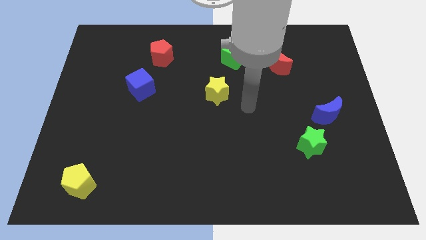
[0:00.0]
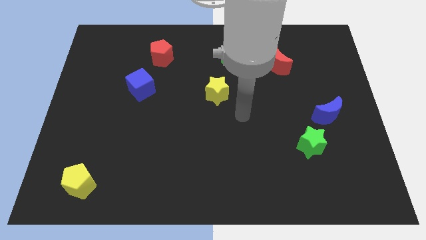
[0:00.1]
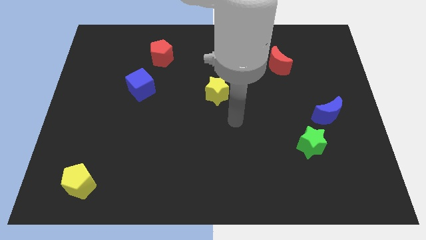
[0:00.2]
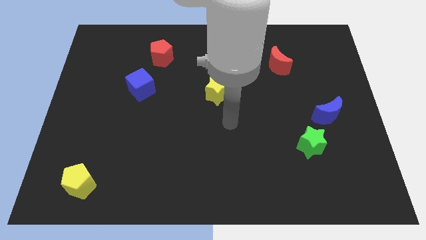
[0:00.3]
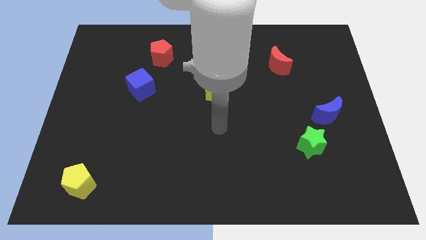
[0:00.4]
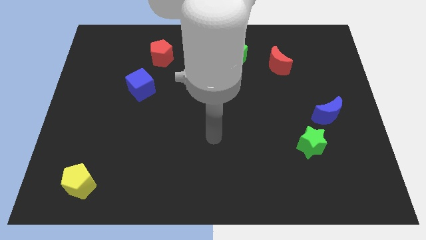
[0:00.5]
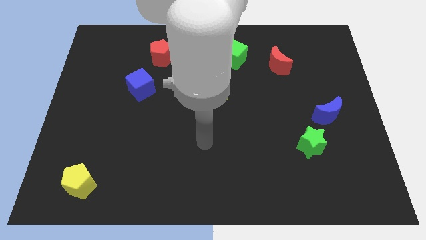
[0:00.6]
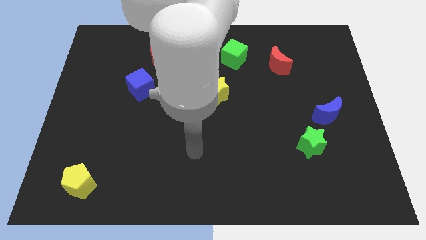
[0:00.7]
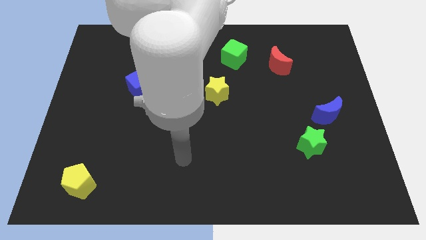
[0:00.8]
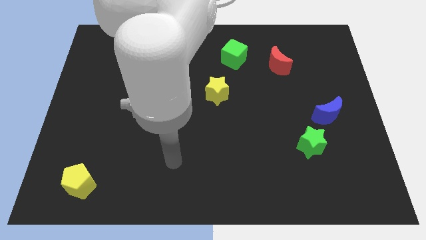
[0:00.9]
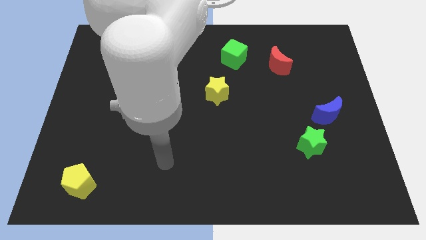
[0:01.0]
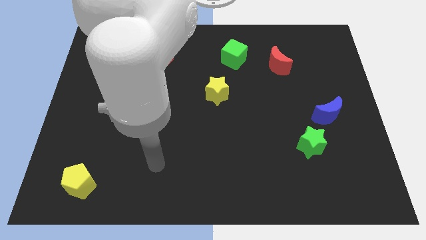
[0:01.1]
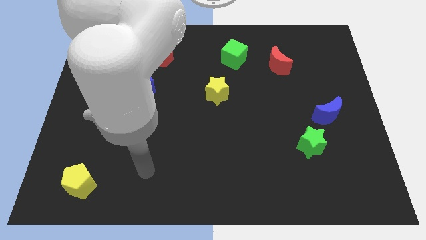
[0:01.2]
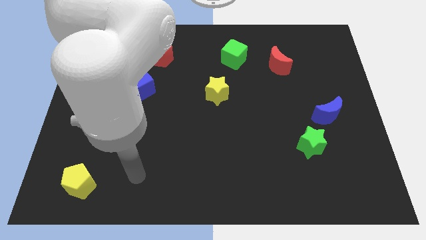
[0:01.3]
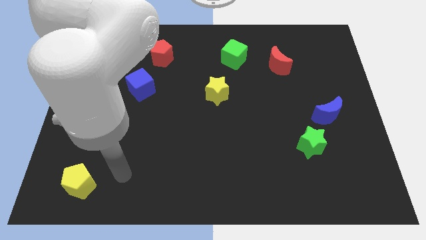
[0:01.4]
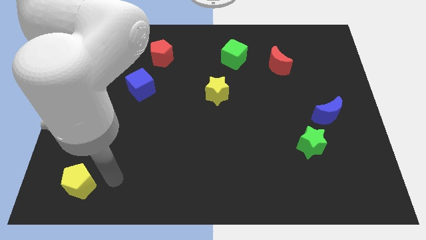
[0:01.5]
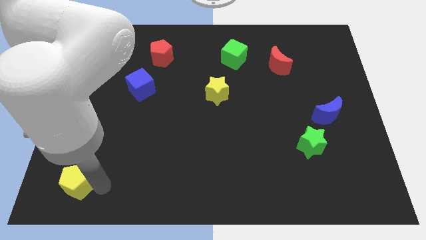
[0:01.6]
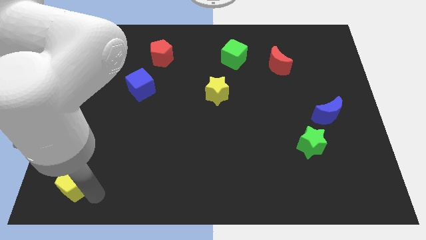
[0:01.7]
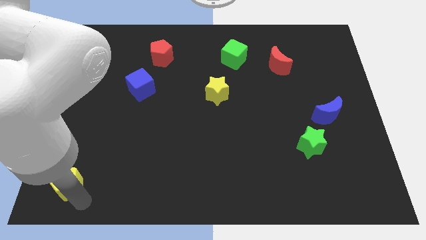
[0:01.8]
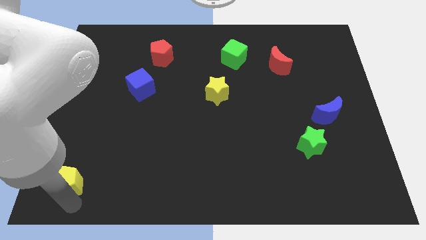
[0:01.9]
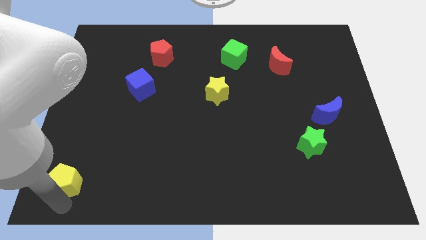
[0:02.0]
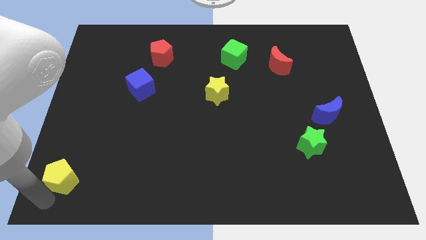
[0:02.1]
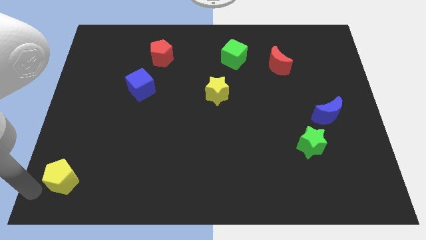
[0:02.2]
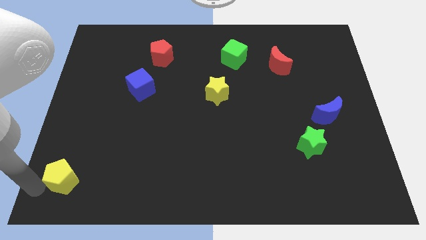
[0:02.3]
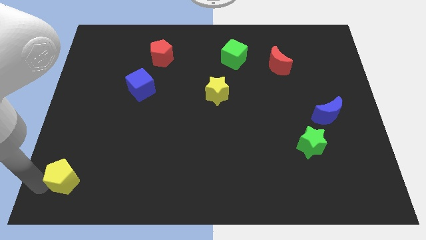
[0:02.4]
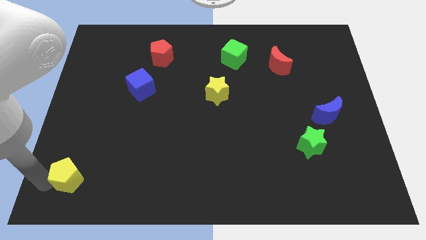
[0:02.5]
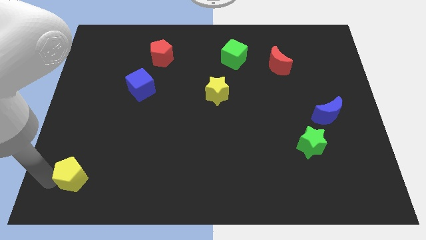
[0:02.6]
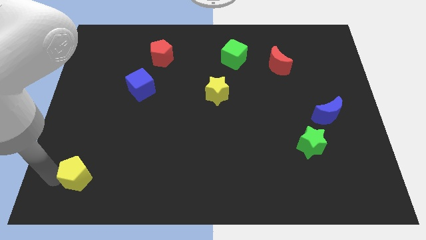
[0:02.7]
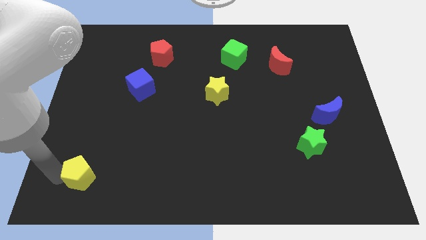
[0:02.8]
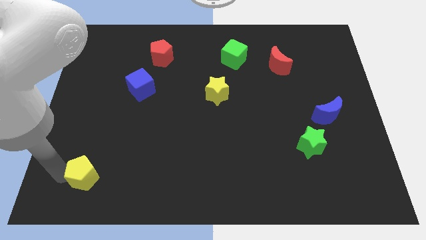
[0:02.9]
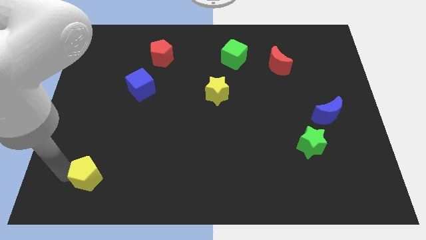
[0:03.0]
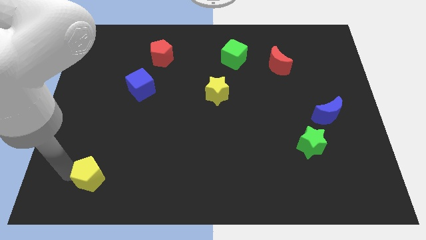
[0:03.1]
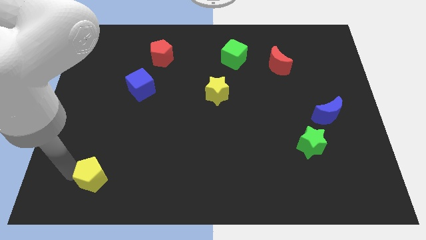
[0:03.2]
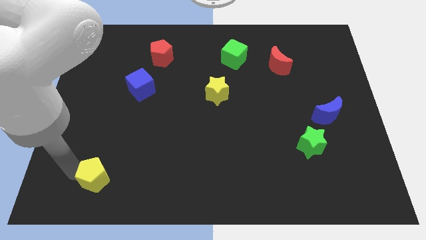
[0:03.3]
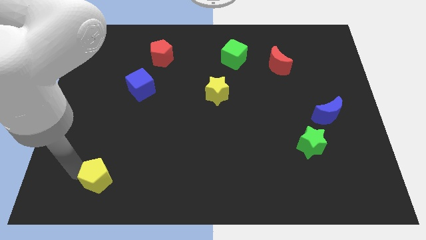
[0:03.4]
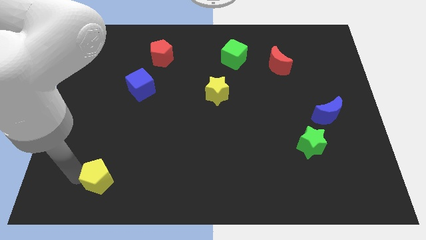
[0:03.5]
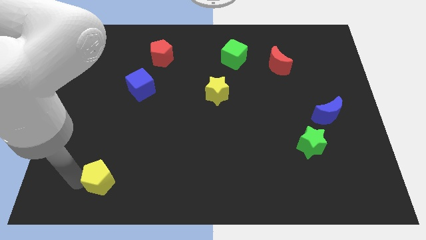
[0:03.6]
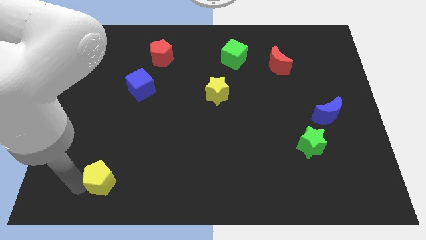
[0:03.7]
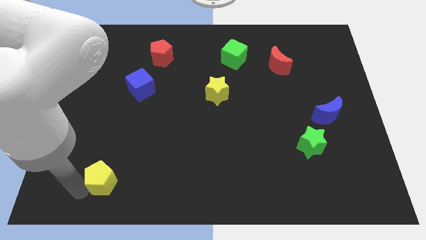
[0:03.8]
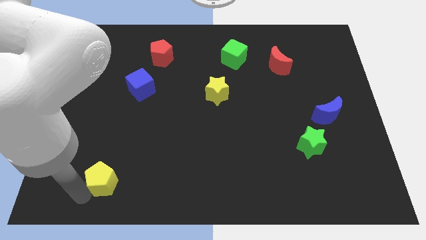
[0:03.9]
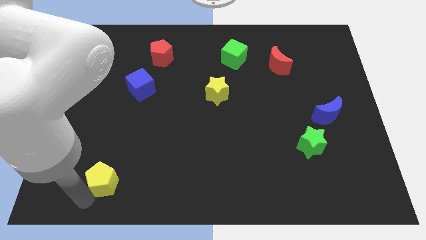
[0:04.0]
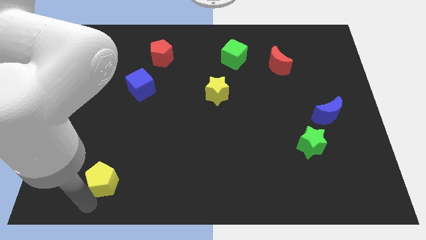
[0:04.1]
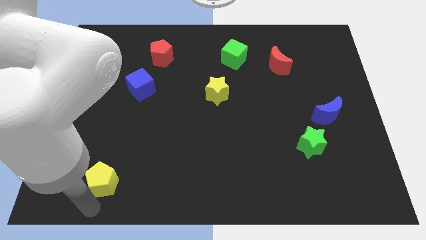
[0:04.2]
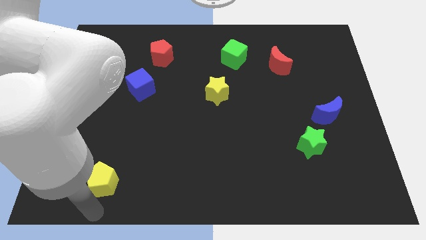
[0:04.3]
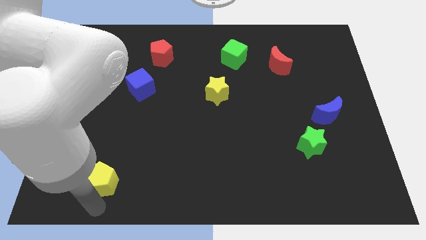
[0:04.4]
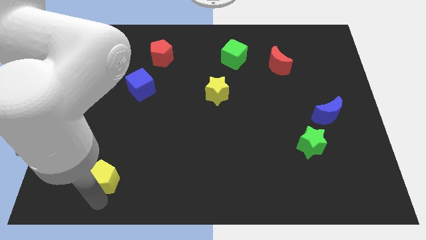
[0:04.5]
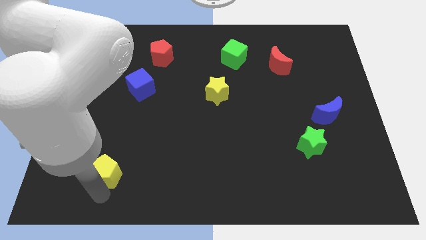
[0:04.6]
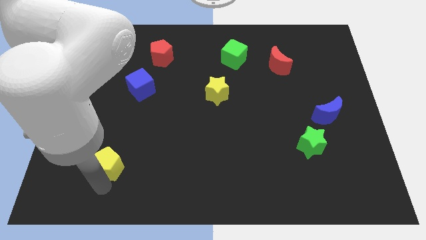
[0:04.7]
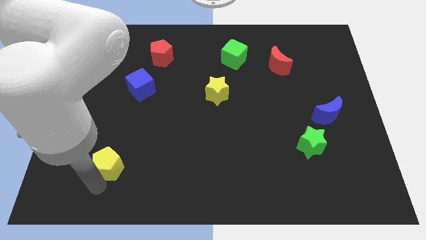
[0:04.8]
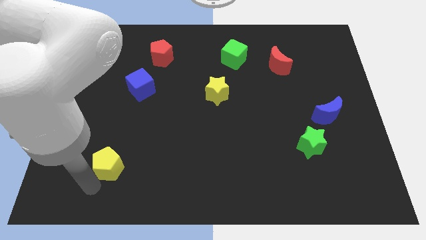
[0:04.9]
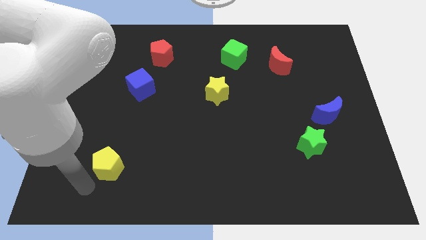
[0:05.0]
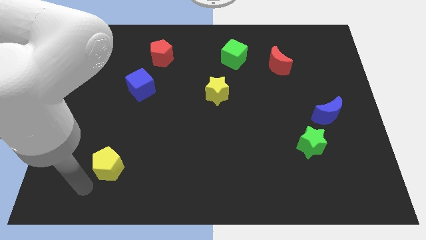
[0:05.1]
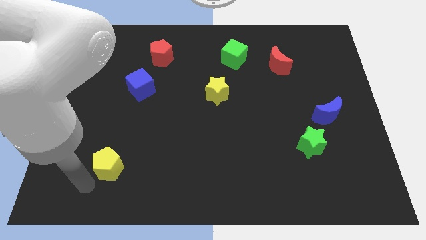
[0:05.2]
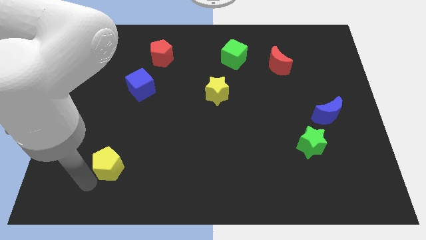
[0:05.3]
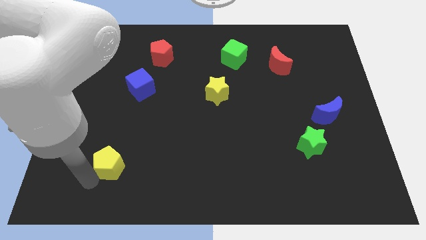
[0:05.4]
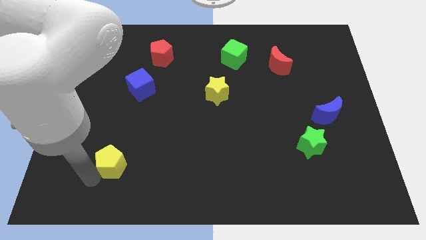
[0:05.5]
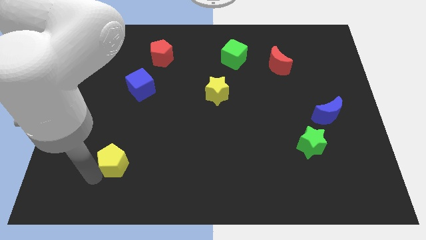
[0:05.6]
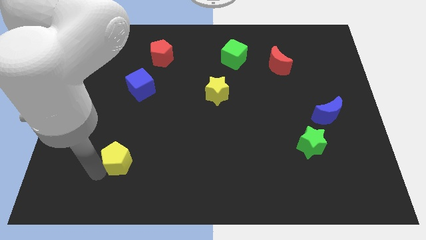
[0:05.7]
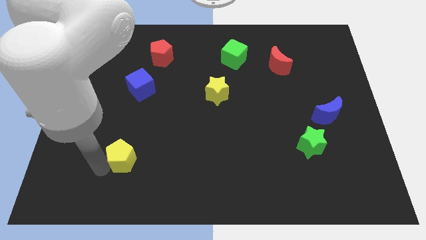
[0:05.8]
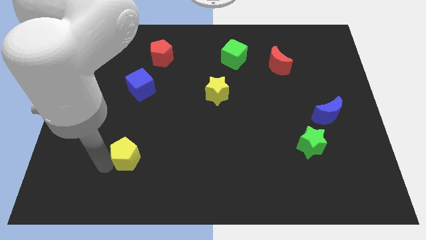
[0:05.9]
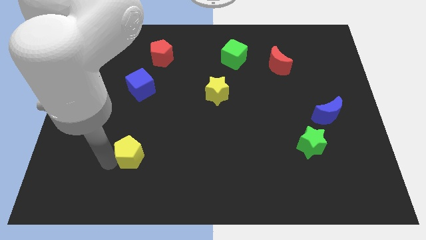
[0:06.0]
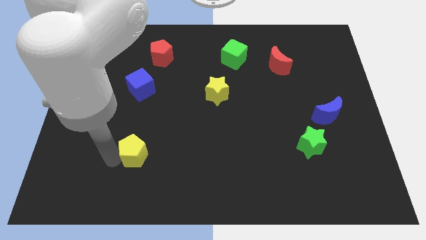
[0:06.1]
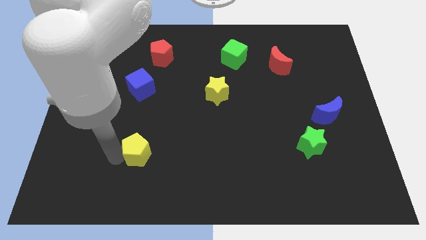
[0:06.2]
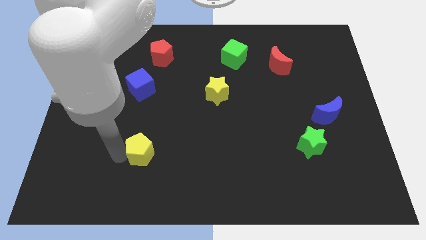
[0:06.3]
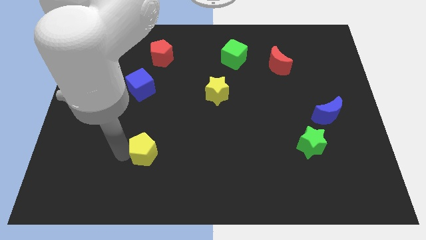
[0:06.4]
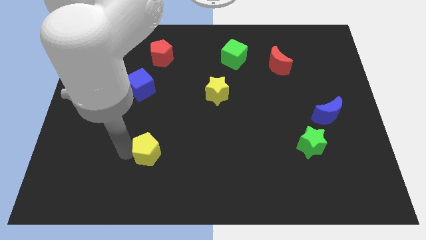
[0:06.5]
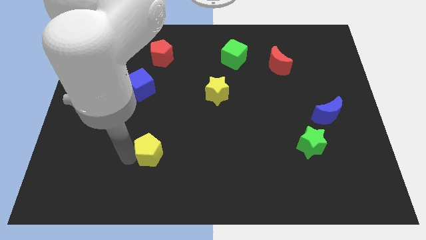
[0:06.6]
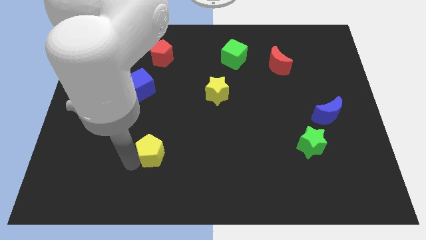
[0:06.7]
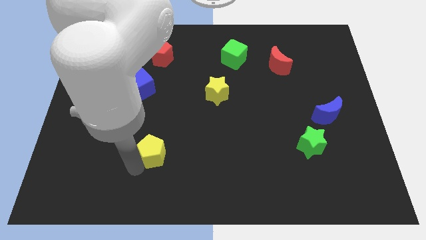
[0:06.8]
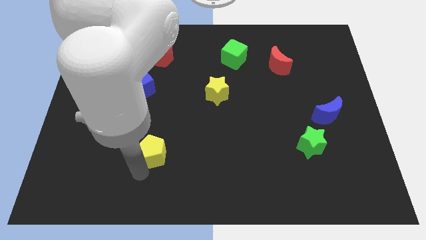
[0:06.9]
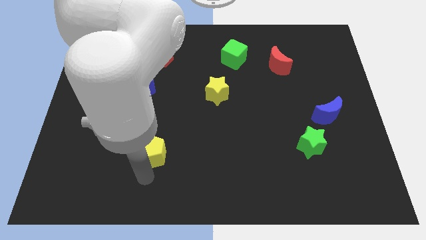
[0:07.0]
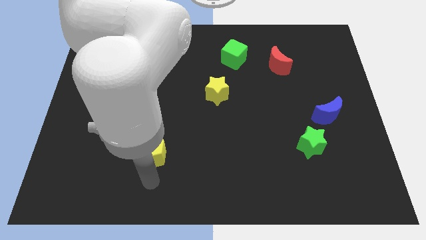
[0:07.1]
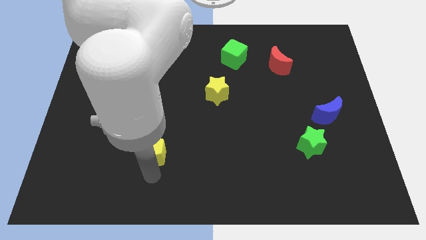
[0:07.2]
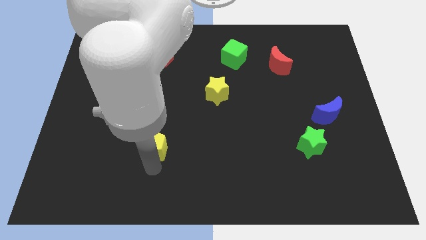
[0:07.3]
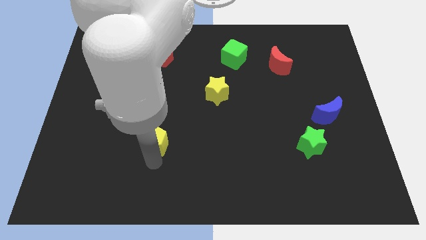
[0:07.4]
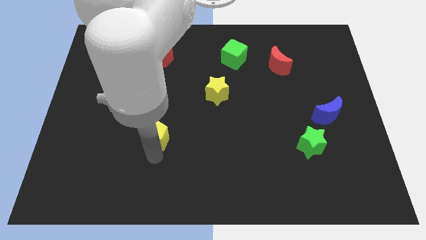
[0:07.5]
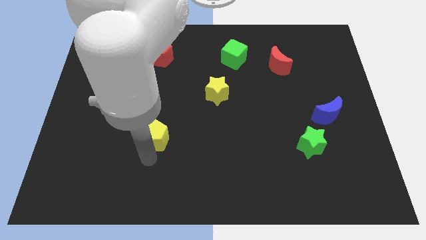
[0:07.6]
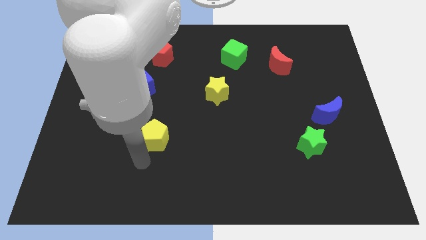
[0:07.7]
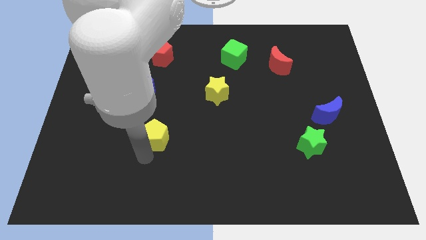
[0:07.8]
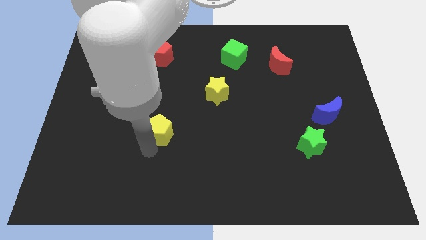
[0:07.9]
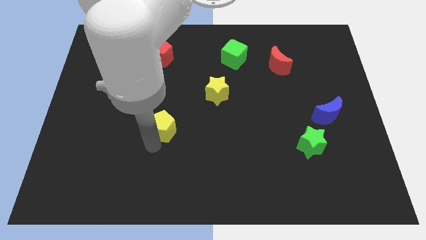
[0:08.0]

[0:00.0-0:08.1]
push the yellow pentagon diagonally up and to the right
